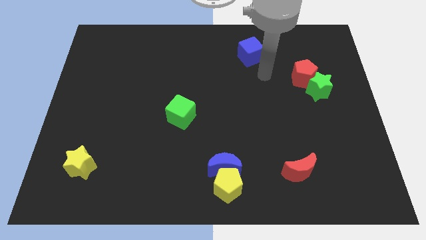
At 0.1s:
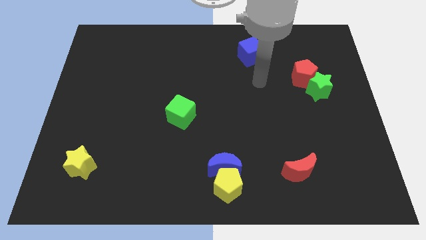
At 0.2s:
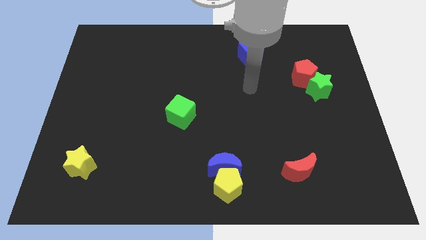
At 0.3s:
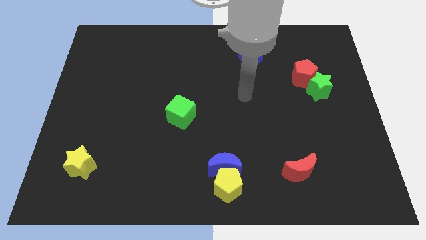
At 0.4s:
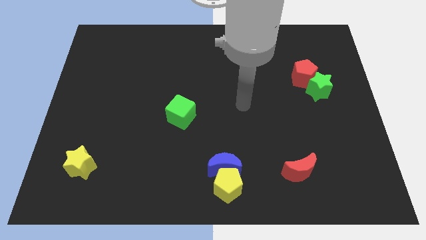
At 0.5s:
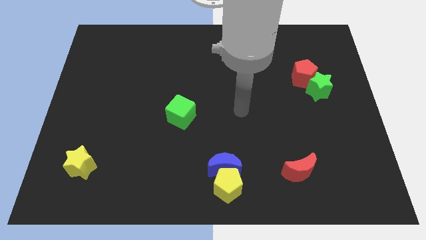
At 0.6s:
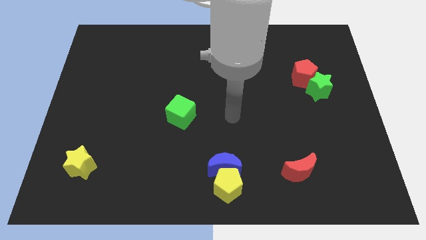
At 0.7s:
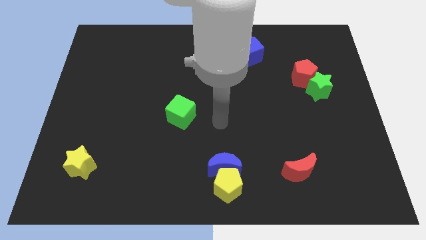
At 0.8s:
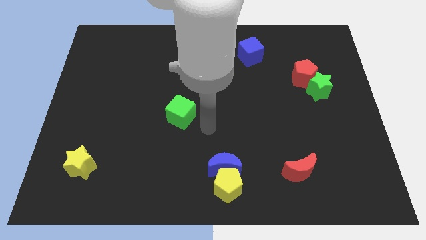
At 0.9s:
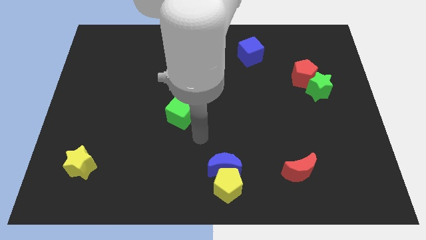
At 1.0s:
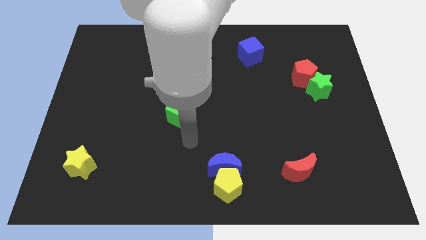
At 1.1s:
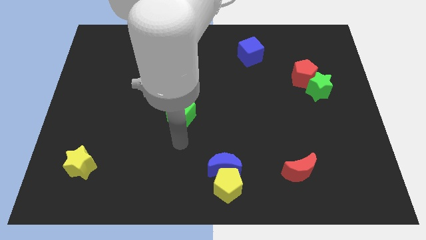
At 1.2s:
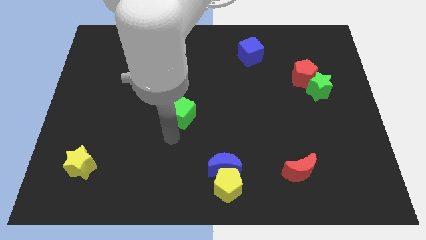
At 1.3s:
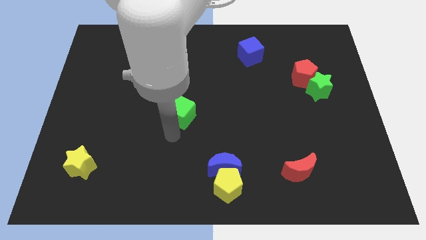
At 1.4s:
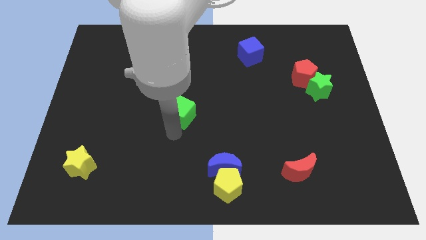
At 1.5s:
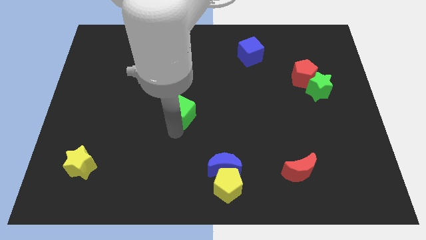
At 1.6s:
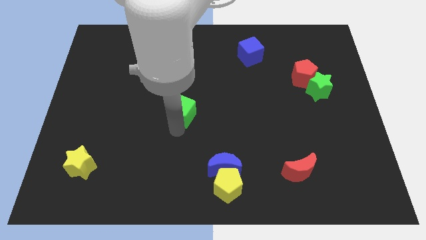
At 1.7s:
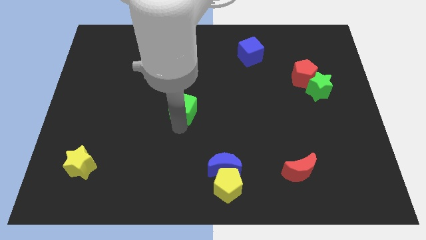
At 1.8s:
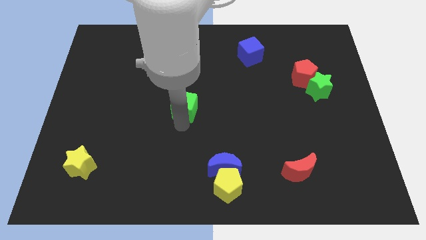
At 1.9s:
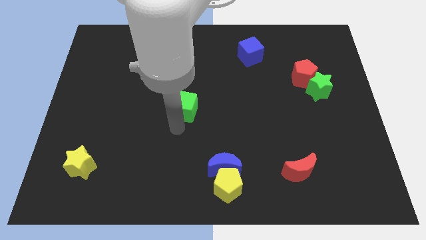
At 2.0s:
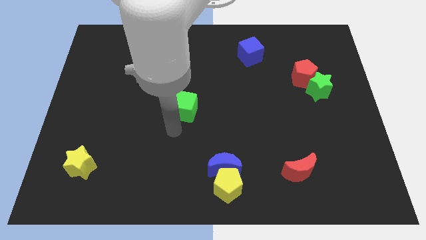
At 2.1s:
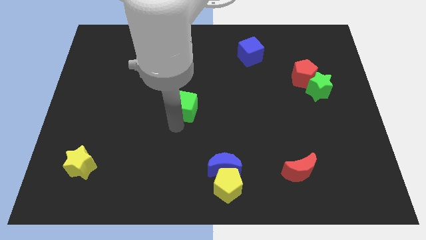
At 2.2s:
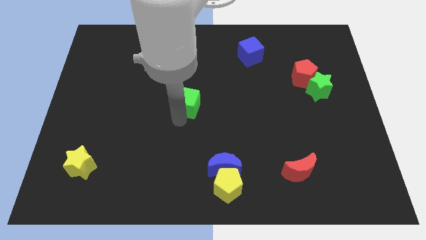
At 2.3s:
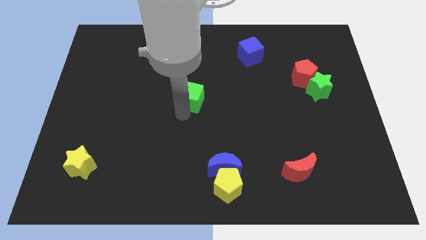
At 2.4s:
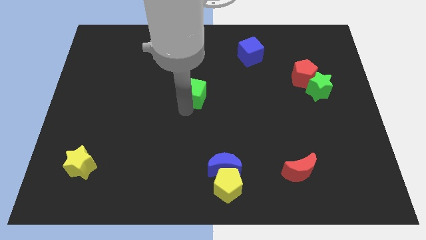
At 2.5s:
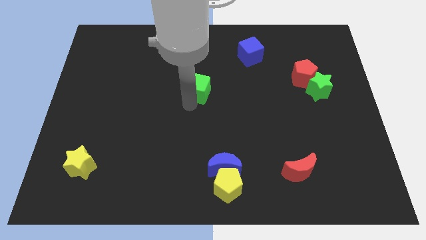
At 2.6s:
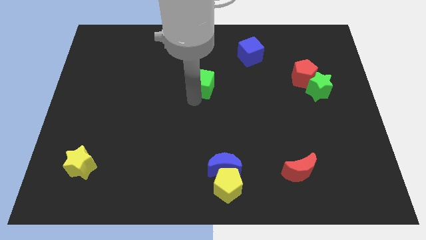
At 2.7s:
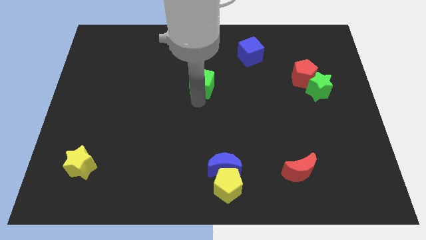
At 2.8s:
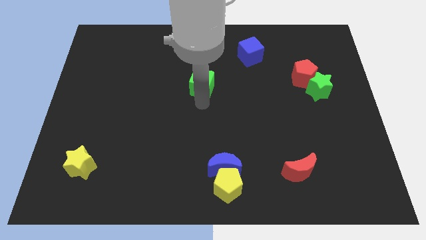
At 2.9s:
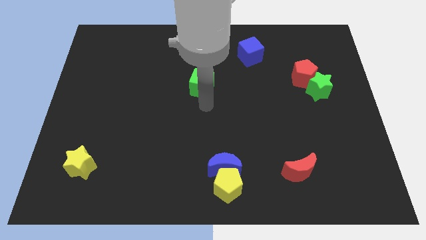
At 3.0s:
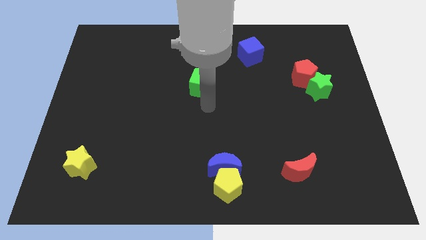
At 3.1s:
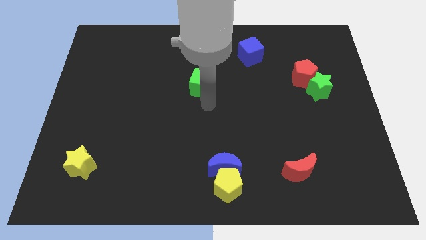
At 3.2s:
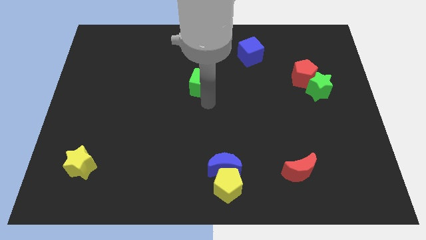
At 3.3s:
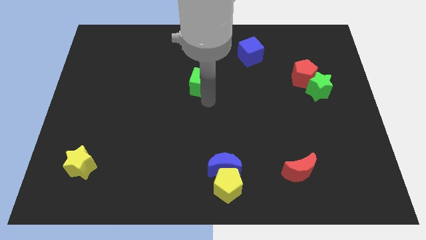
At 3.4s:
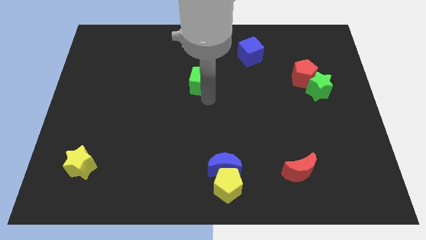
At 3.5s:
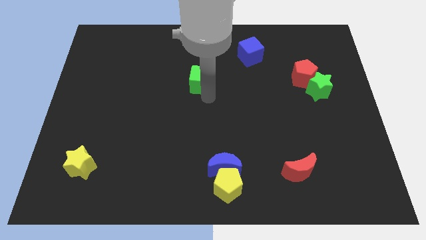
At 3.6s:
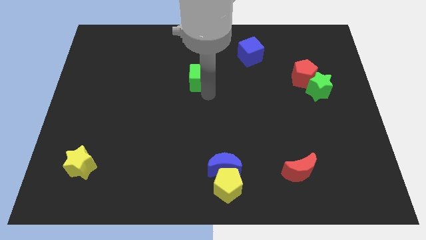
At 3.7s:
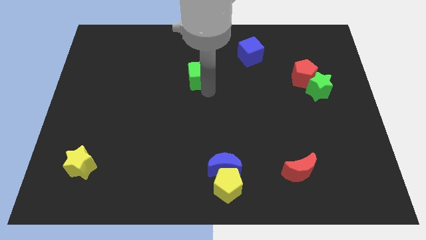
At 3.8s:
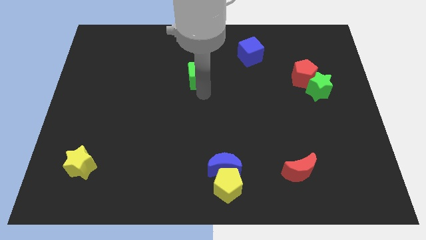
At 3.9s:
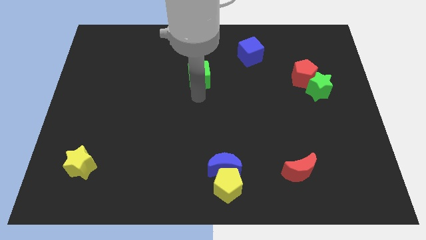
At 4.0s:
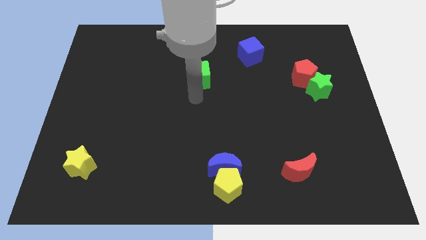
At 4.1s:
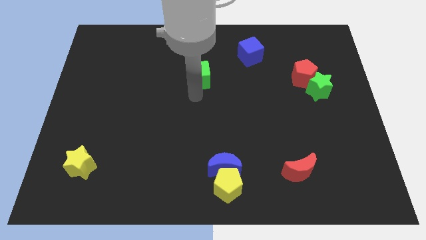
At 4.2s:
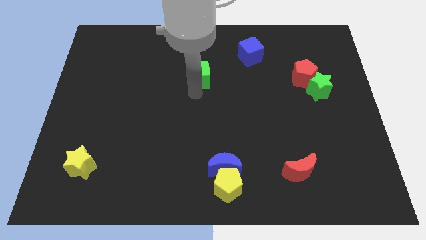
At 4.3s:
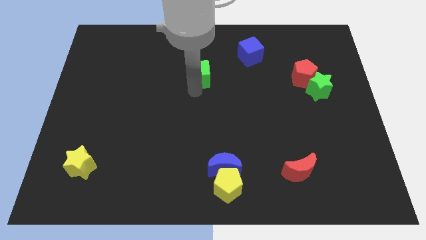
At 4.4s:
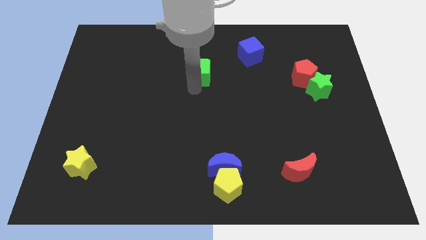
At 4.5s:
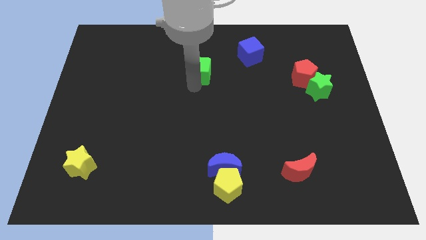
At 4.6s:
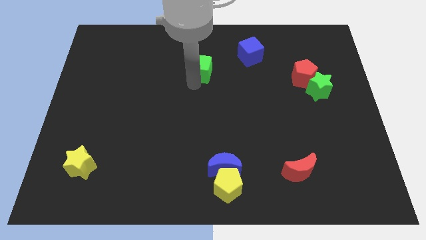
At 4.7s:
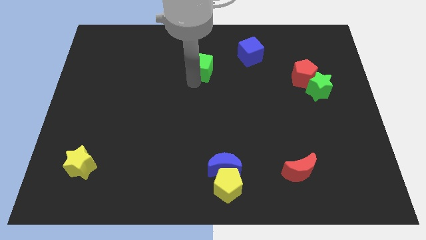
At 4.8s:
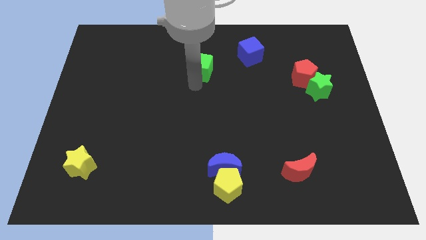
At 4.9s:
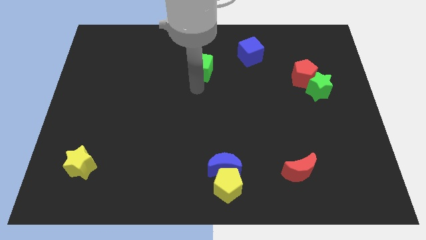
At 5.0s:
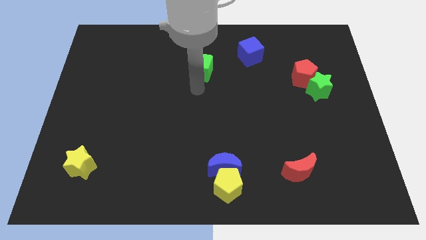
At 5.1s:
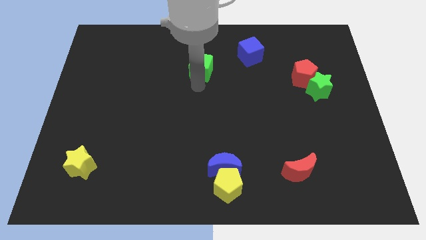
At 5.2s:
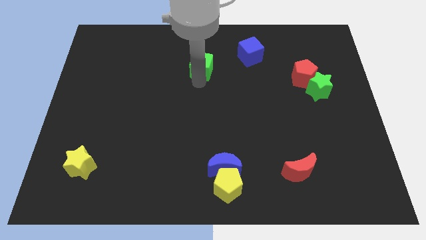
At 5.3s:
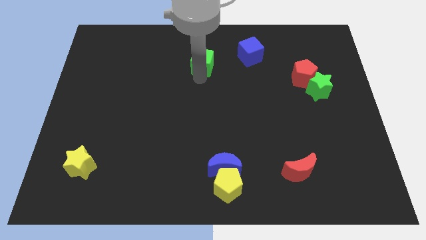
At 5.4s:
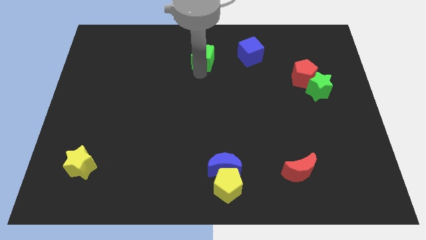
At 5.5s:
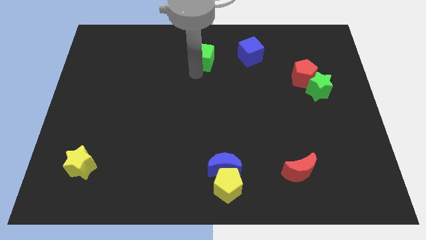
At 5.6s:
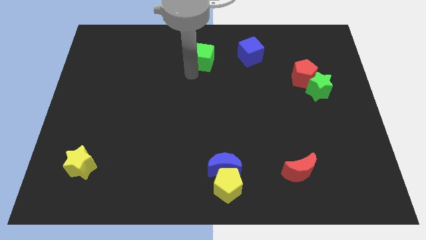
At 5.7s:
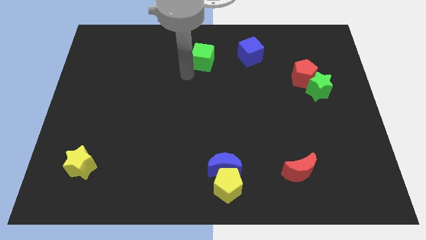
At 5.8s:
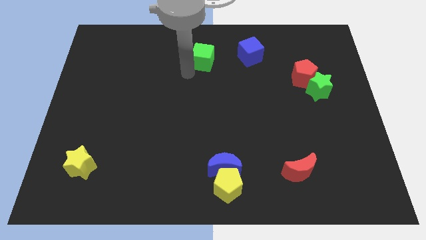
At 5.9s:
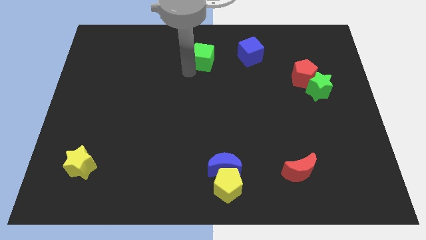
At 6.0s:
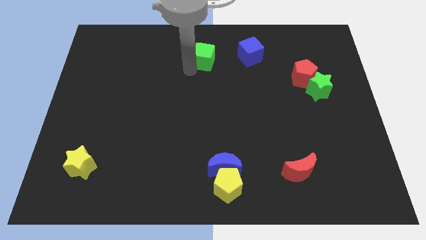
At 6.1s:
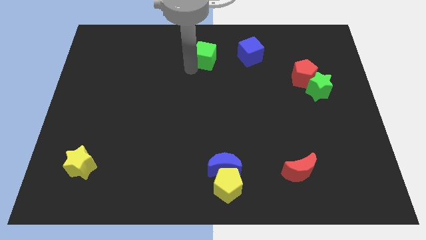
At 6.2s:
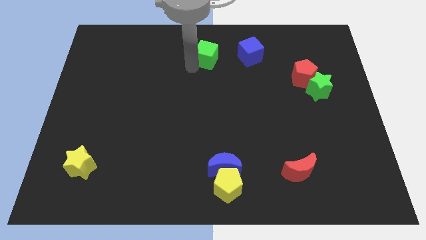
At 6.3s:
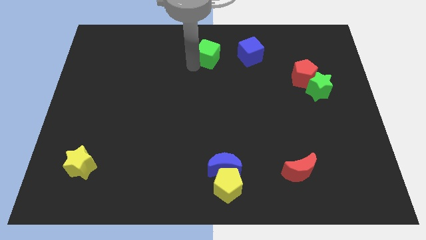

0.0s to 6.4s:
push the green cube to the top side

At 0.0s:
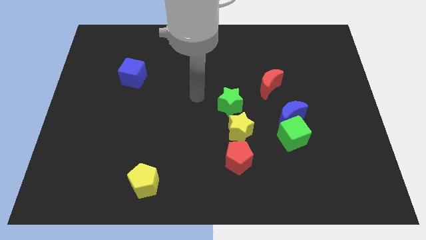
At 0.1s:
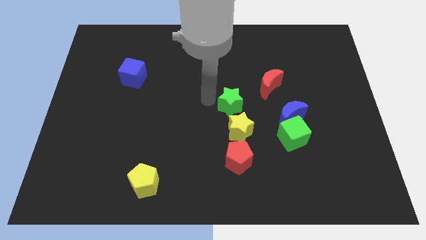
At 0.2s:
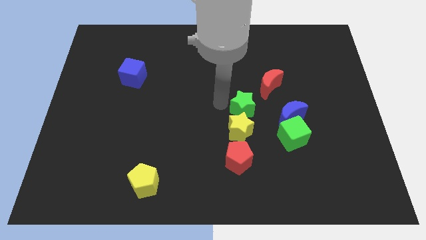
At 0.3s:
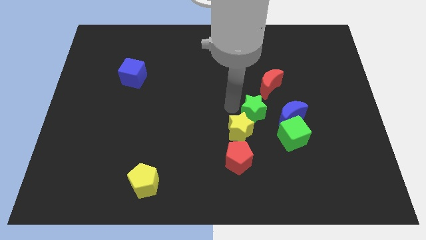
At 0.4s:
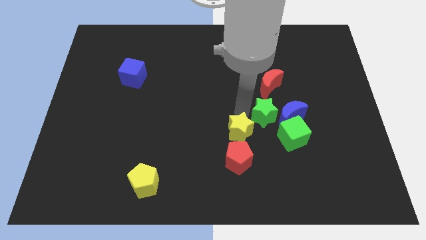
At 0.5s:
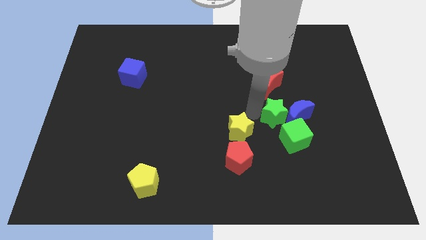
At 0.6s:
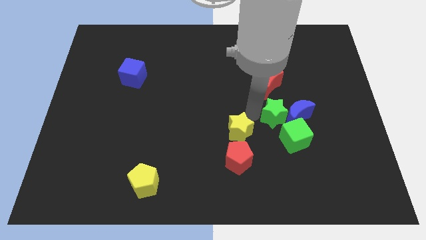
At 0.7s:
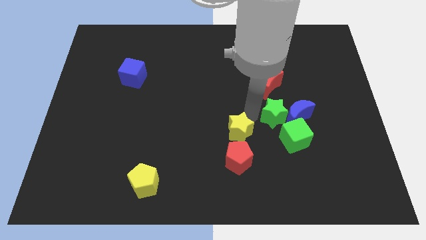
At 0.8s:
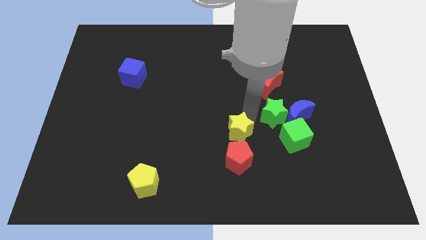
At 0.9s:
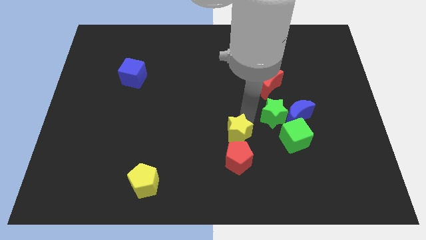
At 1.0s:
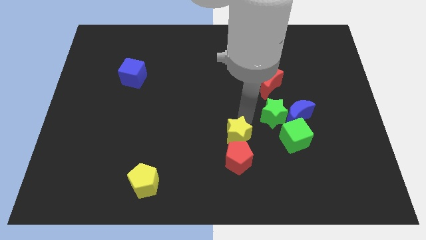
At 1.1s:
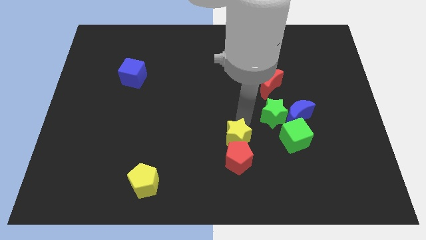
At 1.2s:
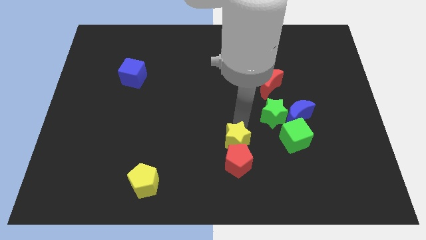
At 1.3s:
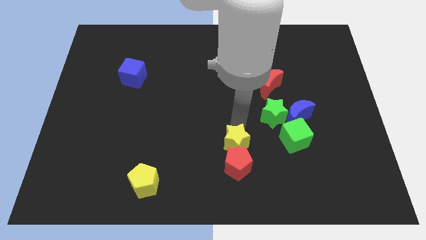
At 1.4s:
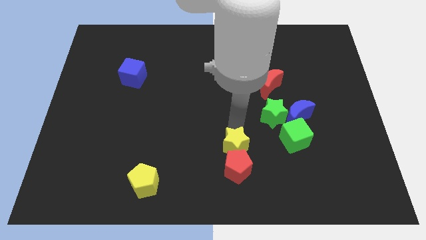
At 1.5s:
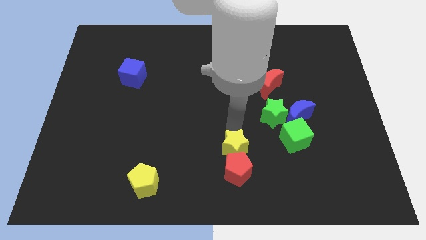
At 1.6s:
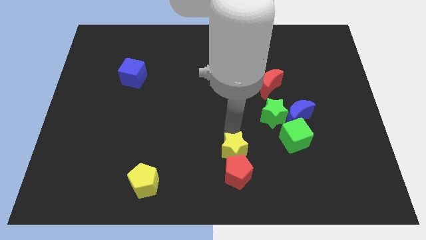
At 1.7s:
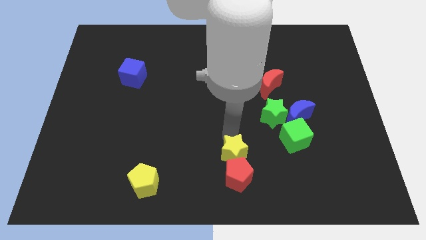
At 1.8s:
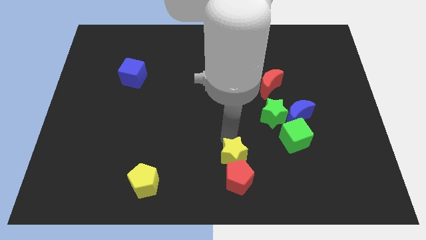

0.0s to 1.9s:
put the yellow star to the bottom side

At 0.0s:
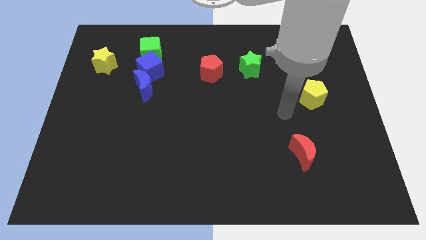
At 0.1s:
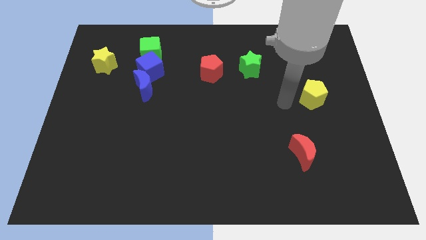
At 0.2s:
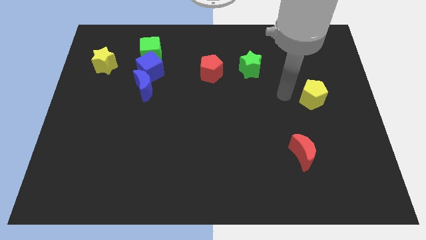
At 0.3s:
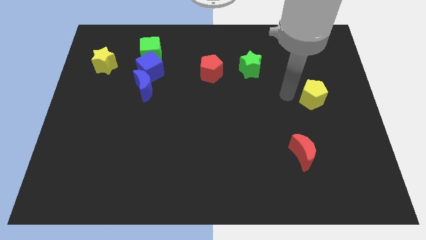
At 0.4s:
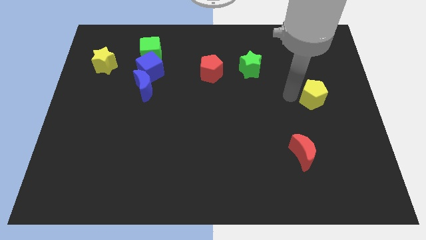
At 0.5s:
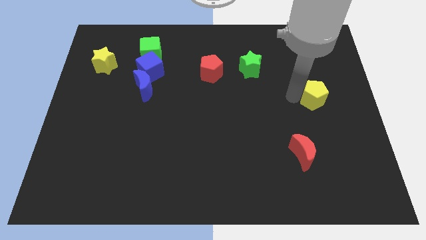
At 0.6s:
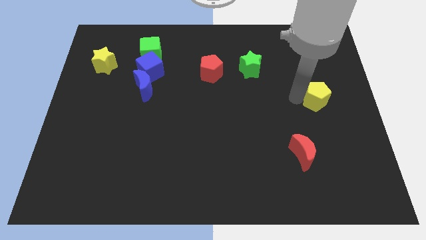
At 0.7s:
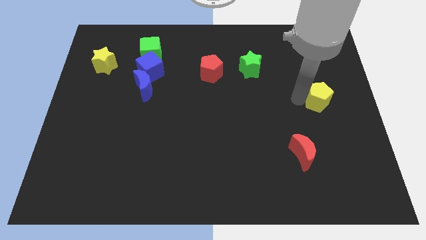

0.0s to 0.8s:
slide the yellow pentagon to the right side
